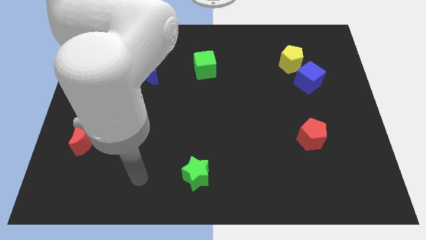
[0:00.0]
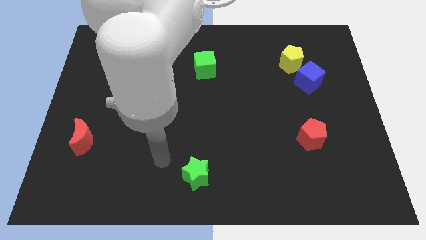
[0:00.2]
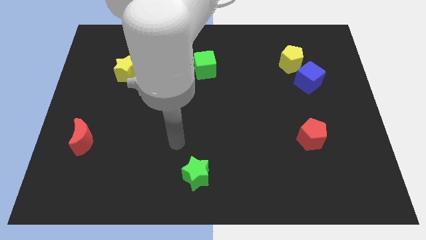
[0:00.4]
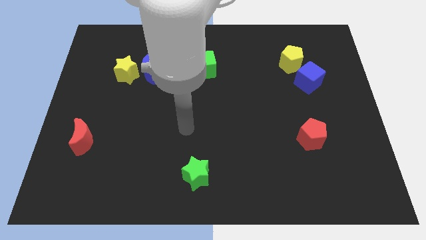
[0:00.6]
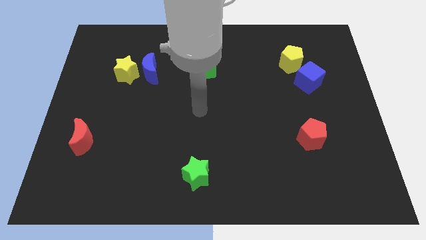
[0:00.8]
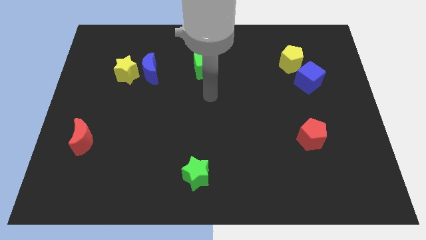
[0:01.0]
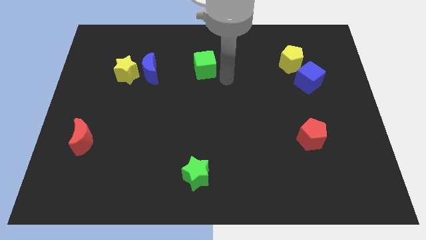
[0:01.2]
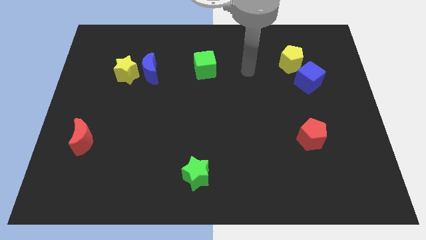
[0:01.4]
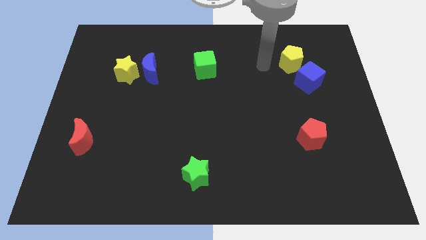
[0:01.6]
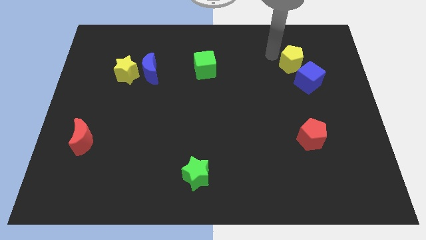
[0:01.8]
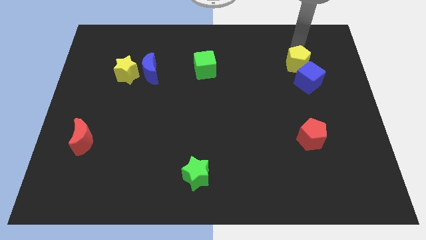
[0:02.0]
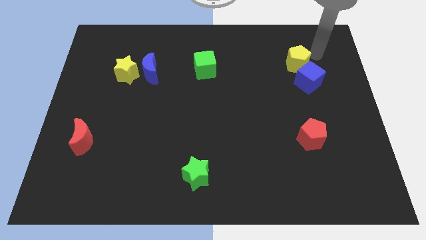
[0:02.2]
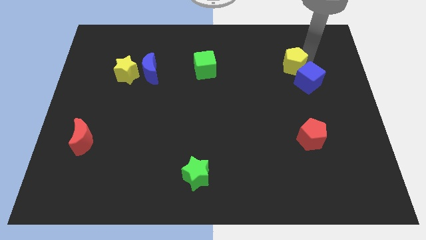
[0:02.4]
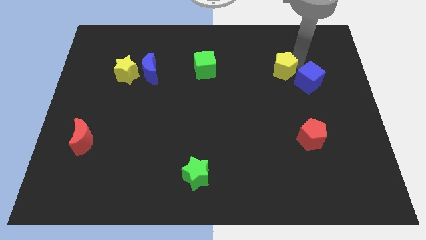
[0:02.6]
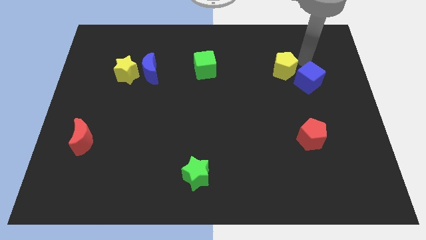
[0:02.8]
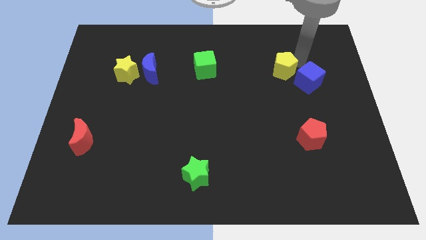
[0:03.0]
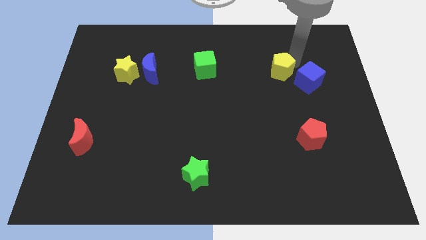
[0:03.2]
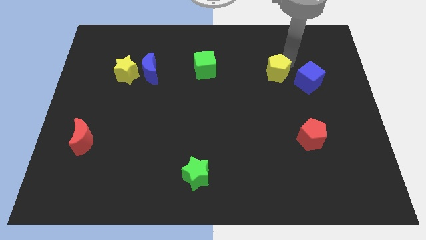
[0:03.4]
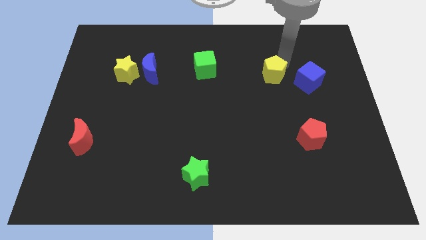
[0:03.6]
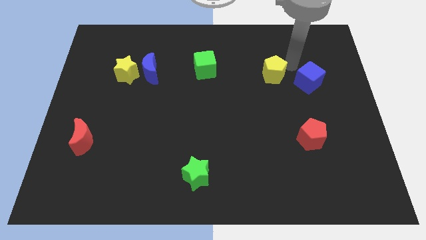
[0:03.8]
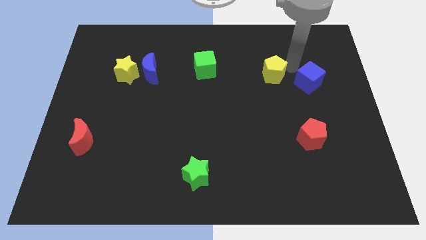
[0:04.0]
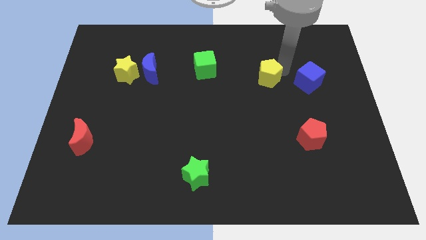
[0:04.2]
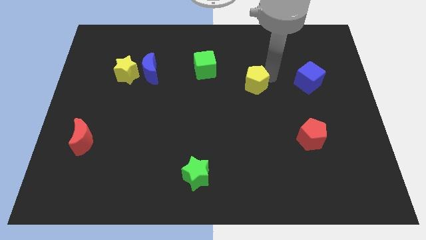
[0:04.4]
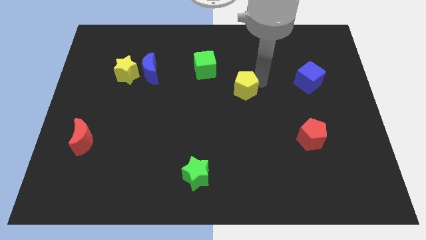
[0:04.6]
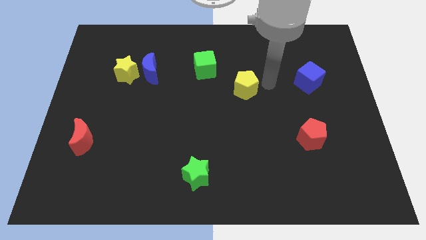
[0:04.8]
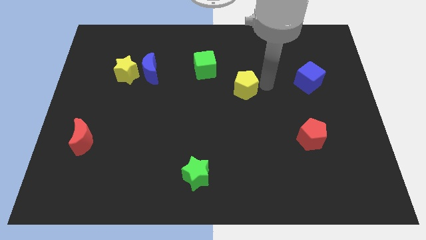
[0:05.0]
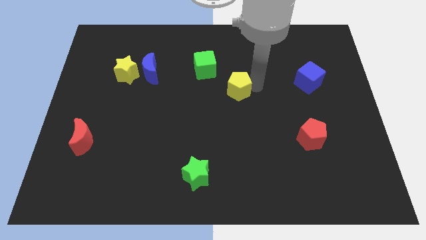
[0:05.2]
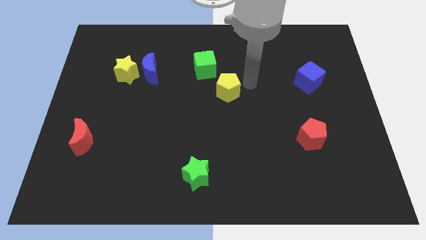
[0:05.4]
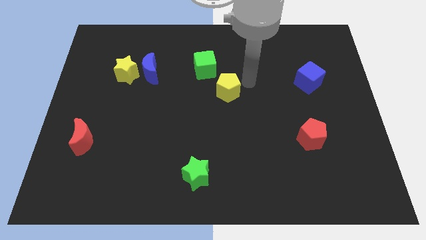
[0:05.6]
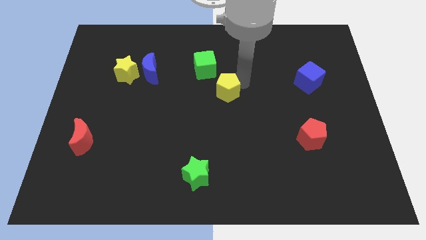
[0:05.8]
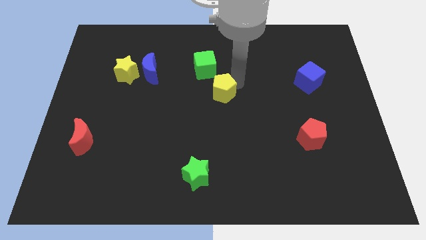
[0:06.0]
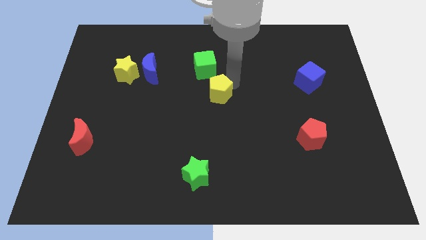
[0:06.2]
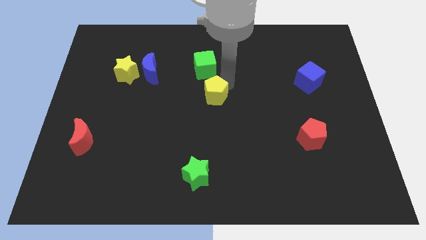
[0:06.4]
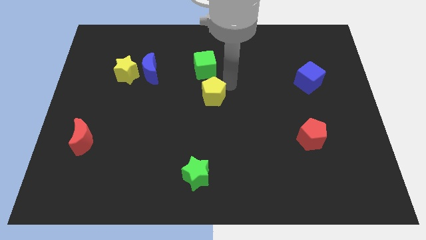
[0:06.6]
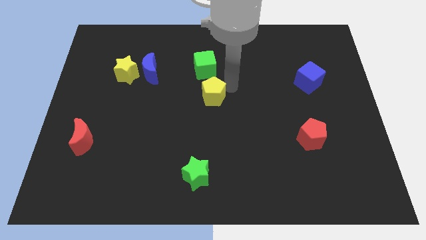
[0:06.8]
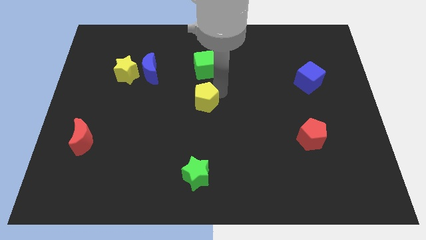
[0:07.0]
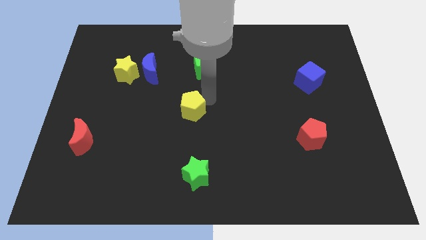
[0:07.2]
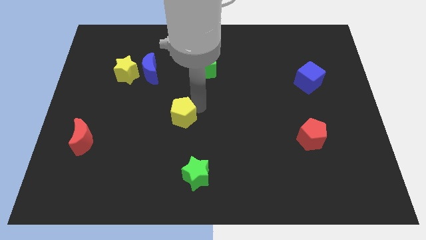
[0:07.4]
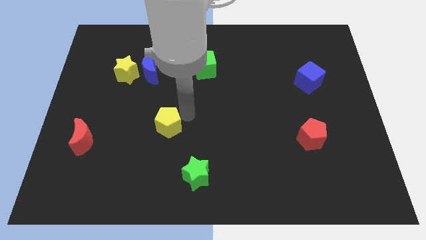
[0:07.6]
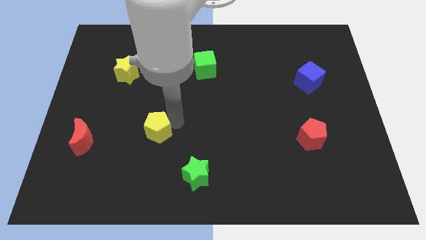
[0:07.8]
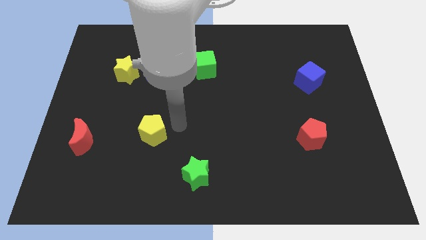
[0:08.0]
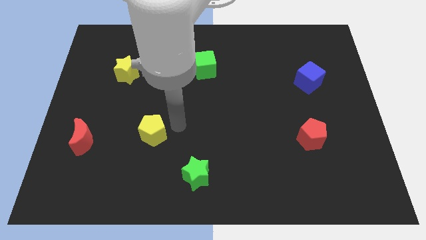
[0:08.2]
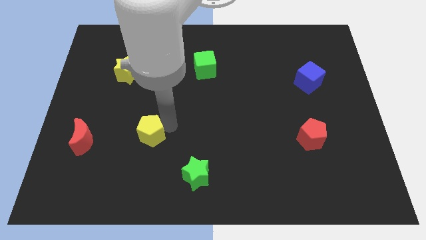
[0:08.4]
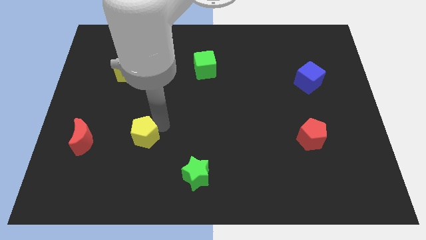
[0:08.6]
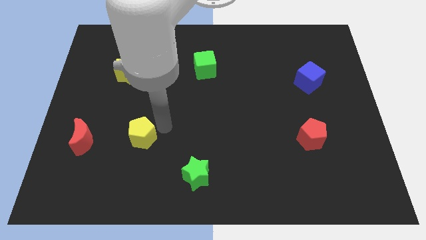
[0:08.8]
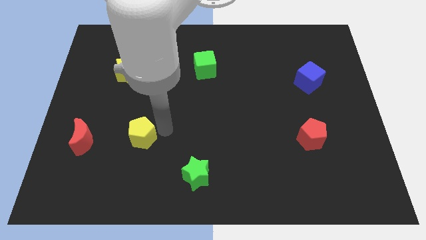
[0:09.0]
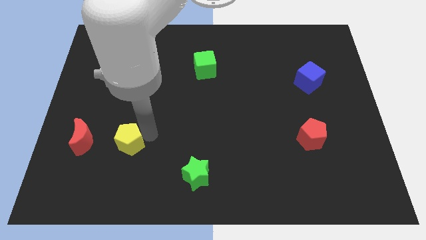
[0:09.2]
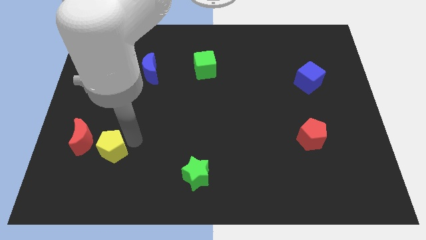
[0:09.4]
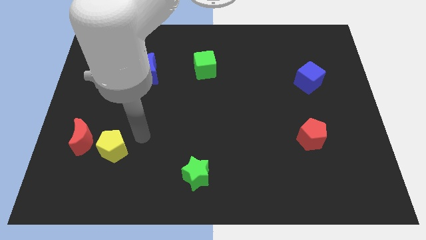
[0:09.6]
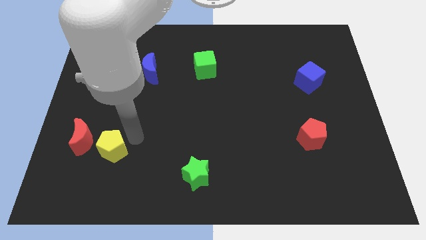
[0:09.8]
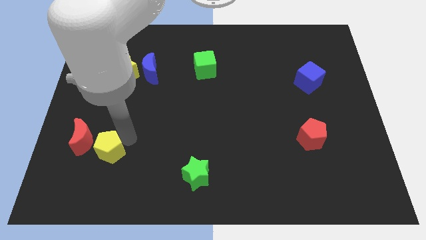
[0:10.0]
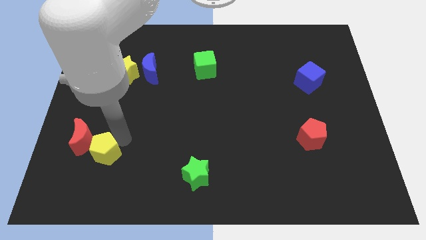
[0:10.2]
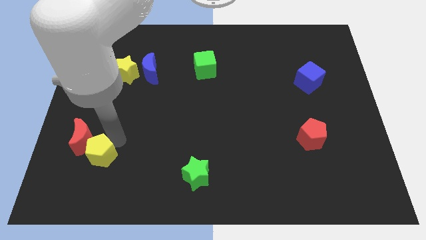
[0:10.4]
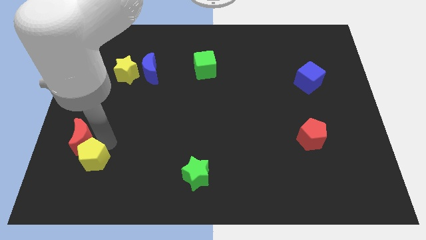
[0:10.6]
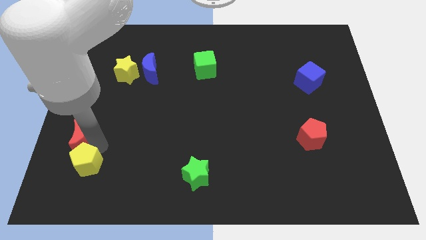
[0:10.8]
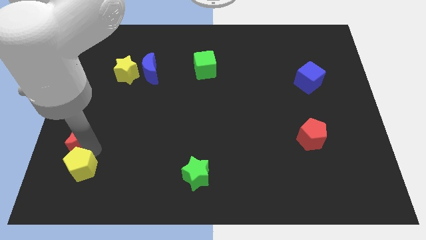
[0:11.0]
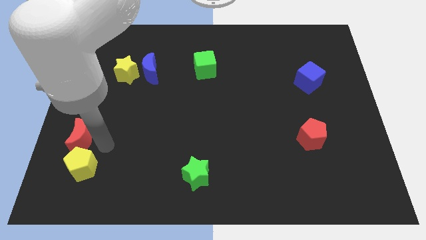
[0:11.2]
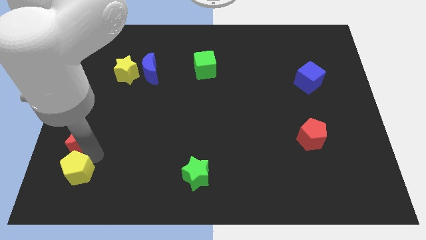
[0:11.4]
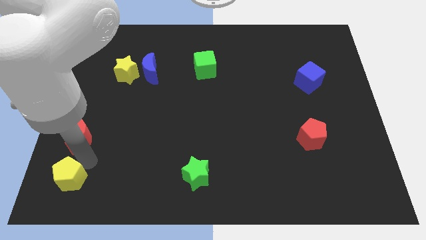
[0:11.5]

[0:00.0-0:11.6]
move the yellow pentagon to the bottom left corner

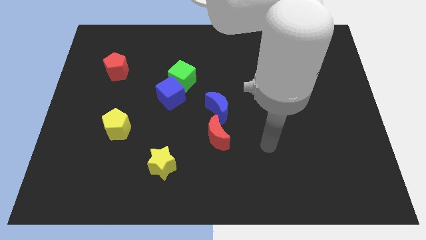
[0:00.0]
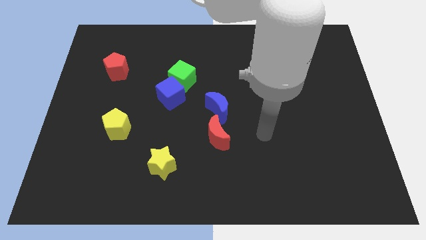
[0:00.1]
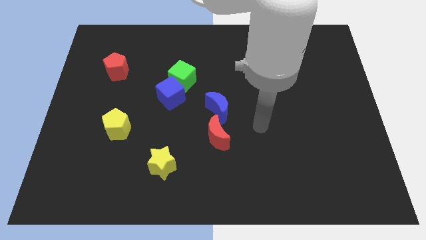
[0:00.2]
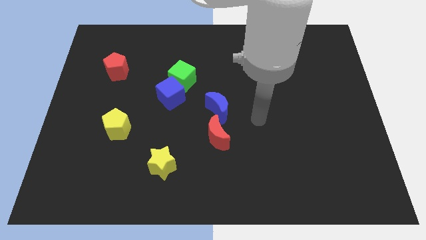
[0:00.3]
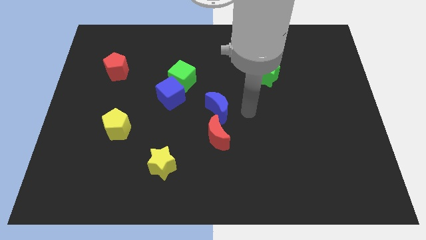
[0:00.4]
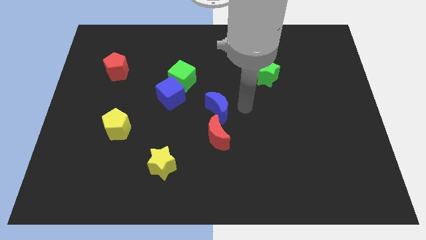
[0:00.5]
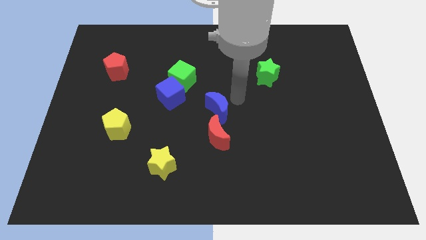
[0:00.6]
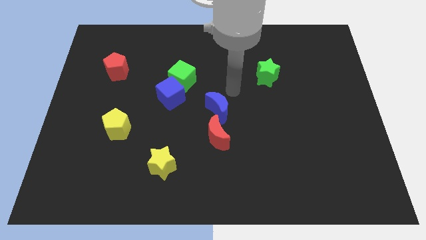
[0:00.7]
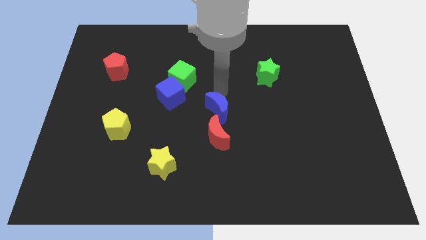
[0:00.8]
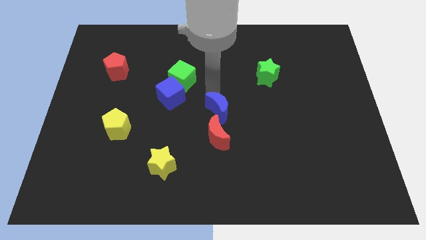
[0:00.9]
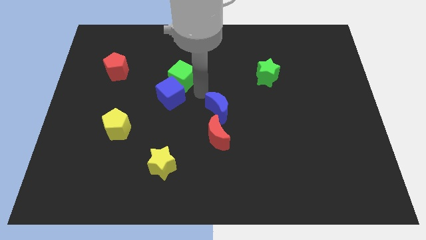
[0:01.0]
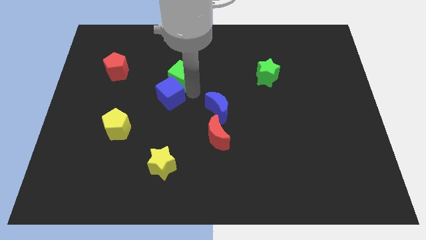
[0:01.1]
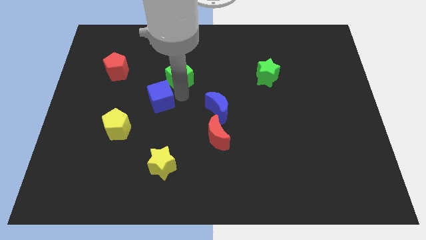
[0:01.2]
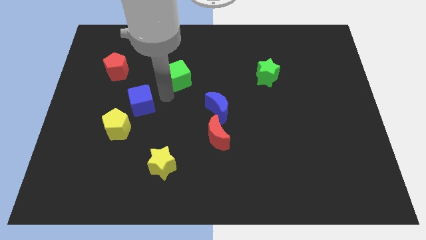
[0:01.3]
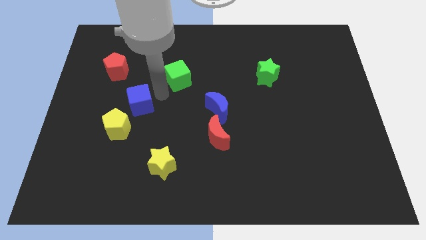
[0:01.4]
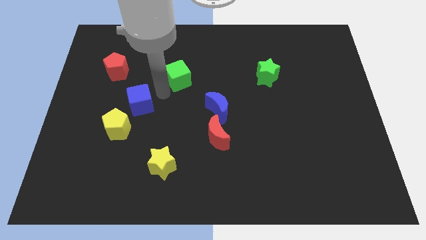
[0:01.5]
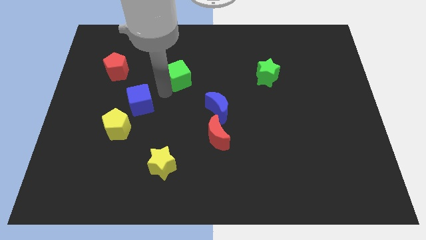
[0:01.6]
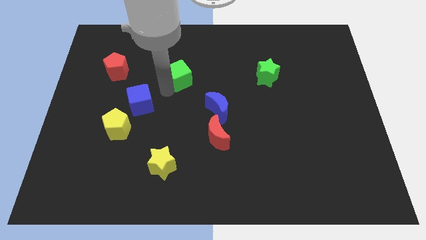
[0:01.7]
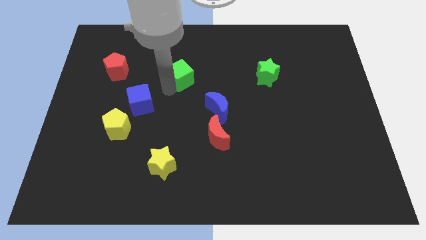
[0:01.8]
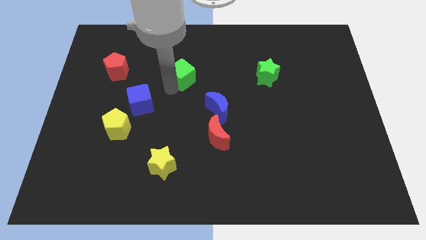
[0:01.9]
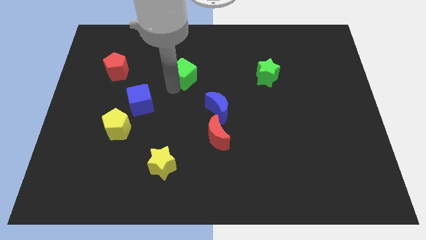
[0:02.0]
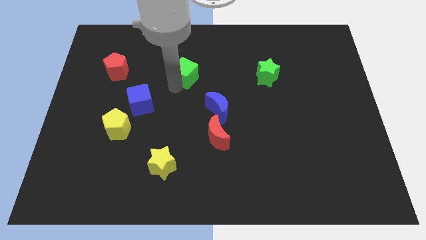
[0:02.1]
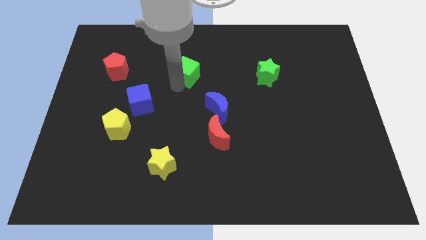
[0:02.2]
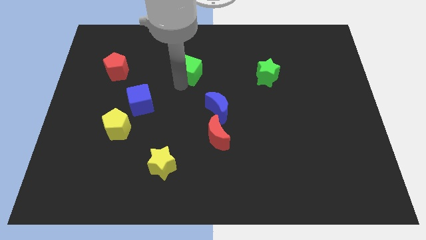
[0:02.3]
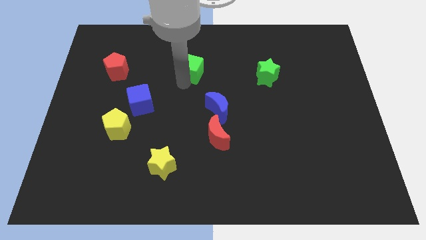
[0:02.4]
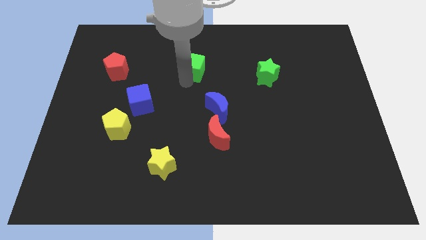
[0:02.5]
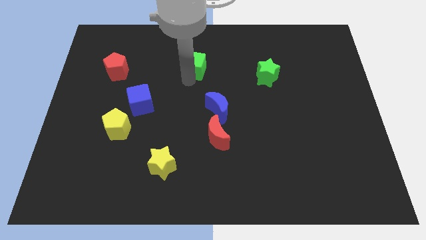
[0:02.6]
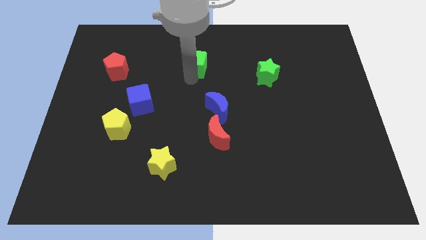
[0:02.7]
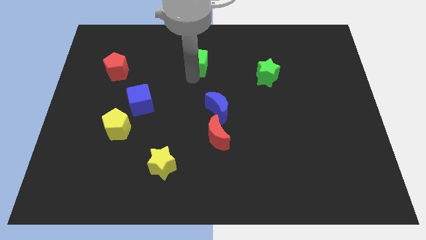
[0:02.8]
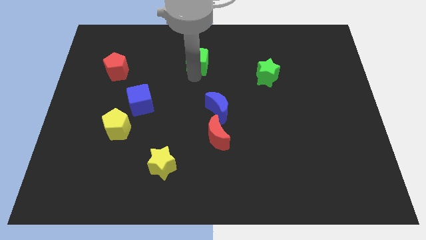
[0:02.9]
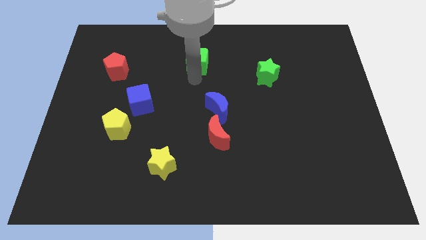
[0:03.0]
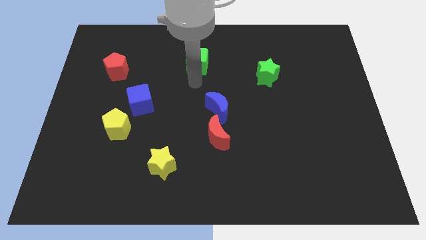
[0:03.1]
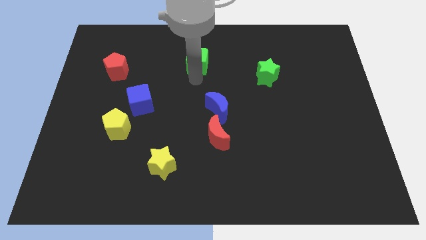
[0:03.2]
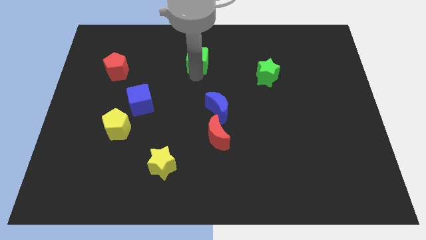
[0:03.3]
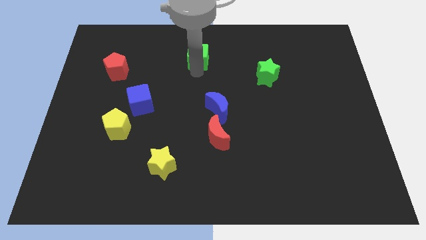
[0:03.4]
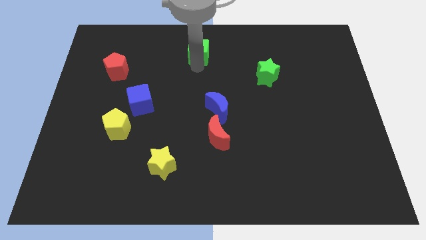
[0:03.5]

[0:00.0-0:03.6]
push the green cube to the towards your base
